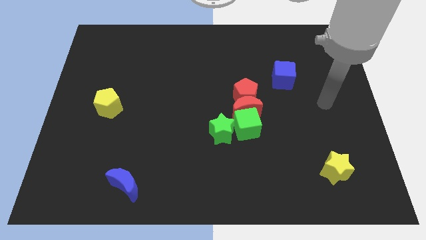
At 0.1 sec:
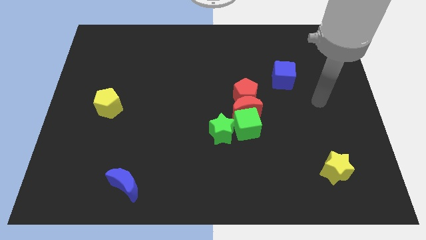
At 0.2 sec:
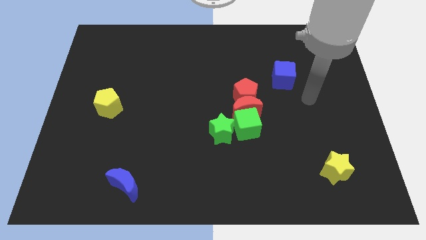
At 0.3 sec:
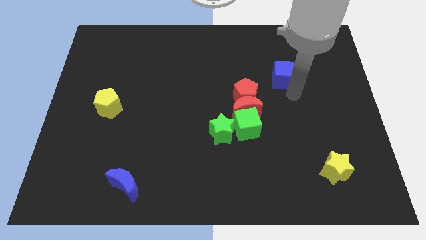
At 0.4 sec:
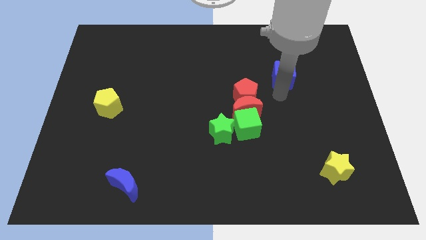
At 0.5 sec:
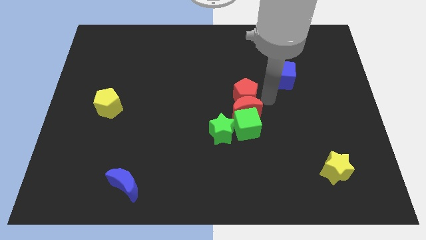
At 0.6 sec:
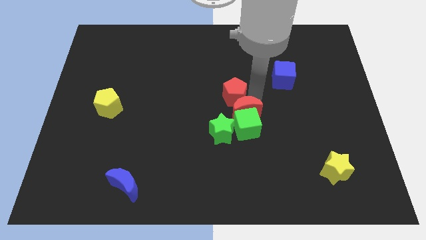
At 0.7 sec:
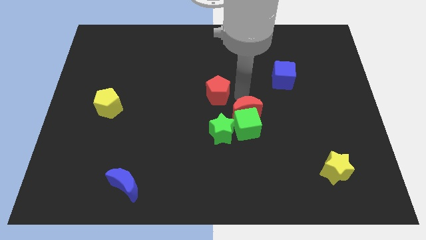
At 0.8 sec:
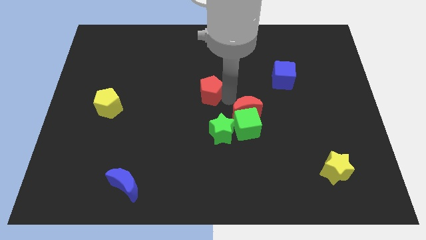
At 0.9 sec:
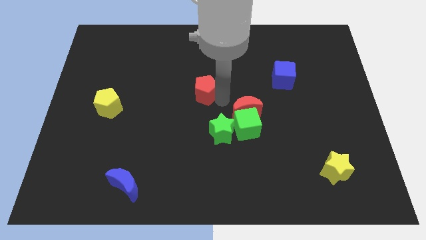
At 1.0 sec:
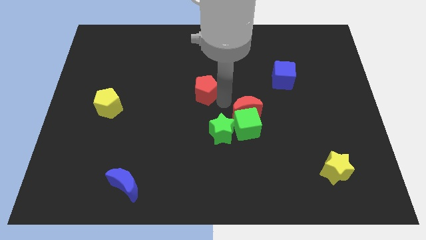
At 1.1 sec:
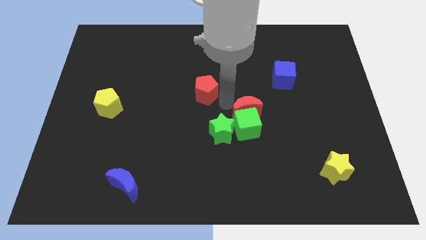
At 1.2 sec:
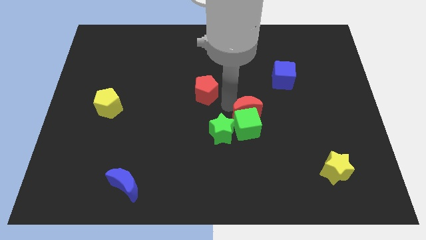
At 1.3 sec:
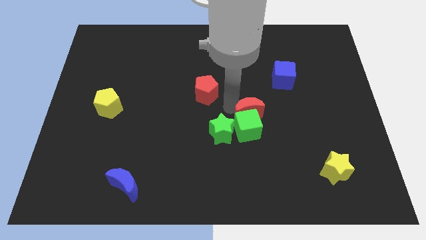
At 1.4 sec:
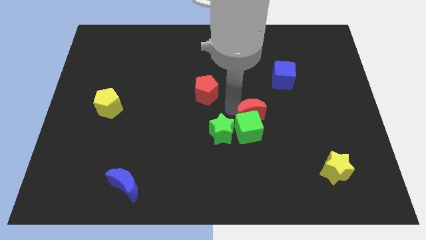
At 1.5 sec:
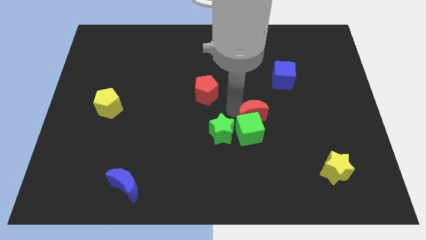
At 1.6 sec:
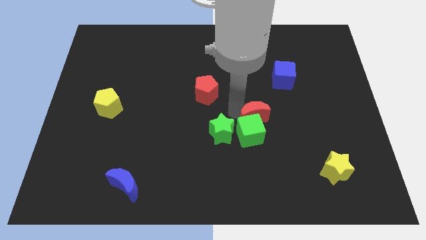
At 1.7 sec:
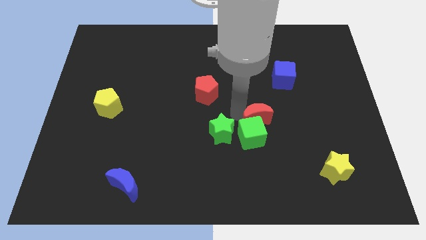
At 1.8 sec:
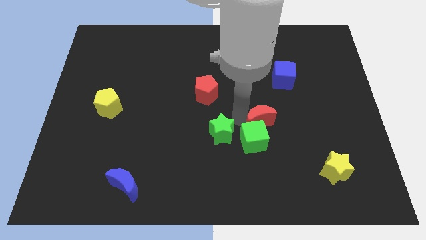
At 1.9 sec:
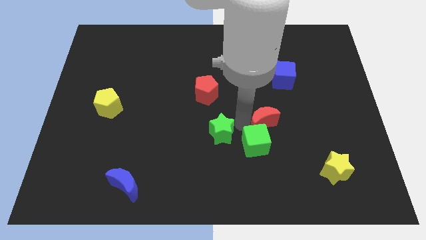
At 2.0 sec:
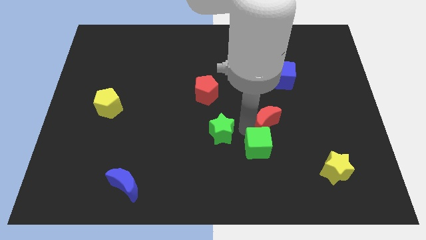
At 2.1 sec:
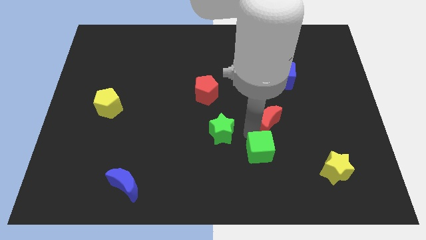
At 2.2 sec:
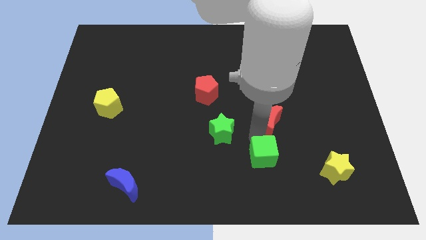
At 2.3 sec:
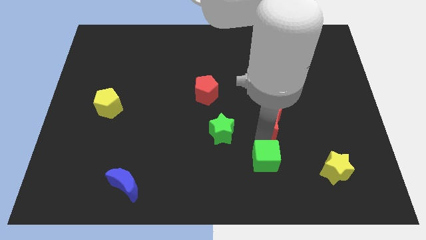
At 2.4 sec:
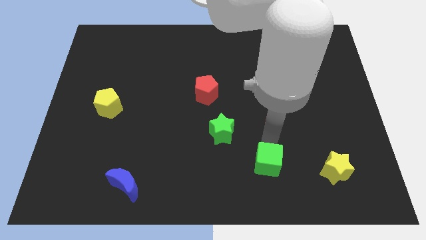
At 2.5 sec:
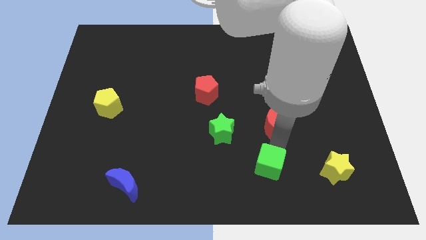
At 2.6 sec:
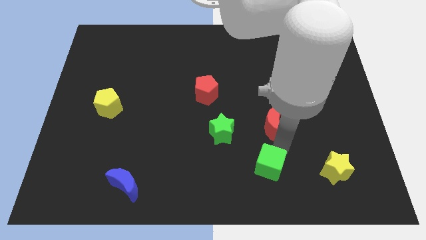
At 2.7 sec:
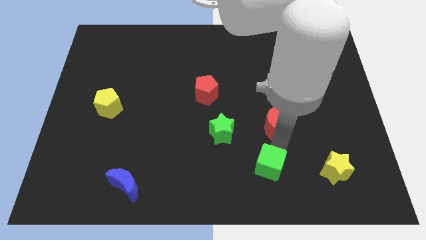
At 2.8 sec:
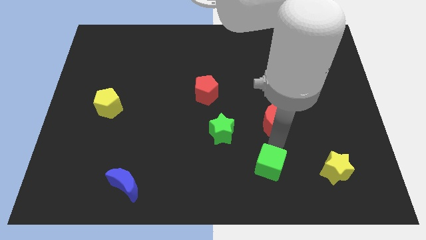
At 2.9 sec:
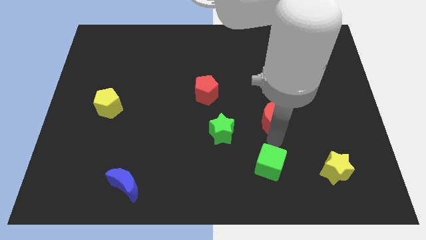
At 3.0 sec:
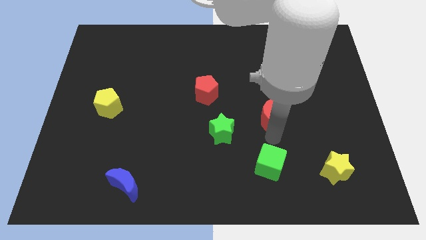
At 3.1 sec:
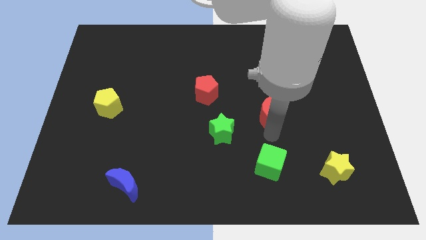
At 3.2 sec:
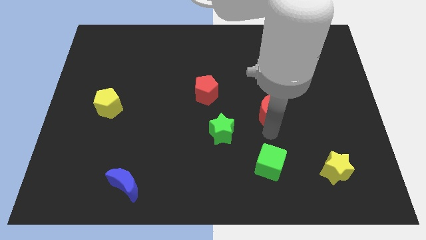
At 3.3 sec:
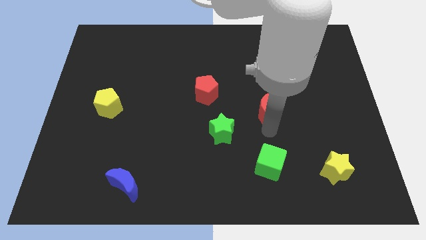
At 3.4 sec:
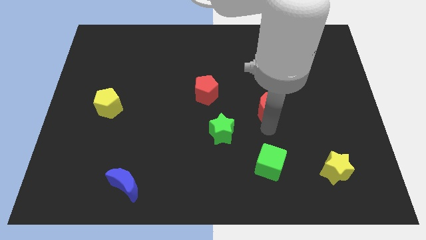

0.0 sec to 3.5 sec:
move the red moon away from the clump

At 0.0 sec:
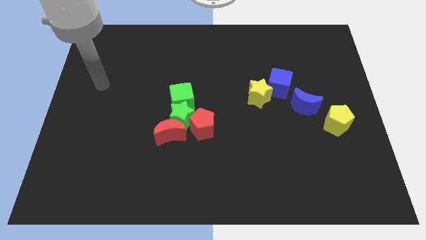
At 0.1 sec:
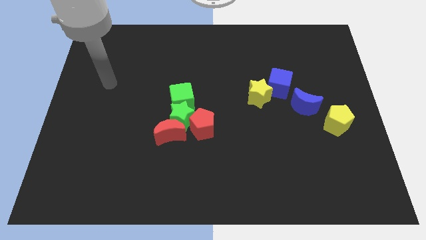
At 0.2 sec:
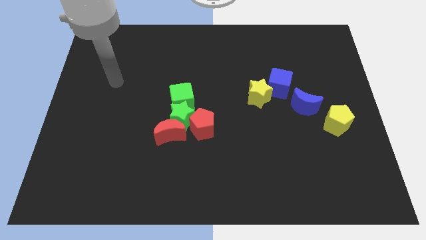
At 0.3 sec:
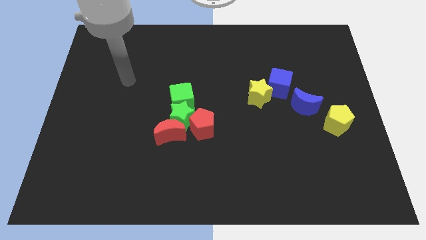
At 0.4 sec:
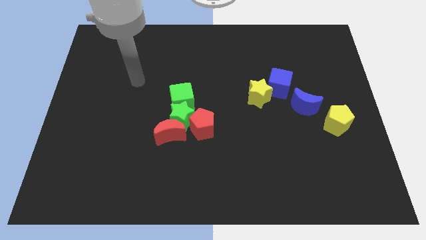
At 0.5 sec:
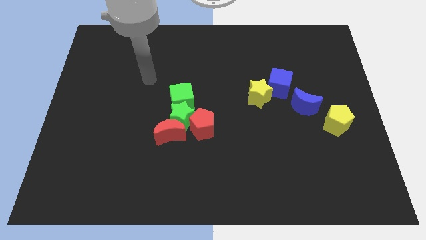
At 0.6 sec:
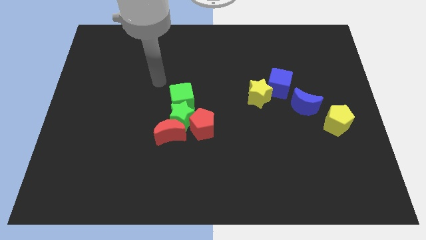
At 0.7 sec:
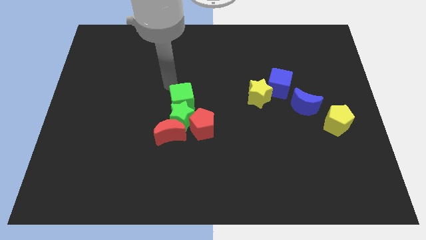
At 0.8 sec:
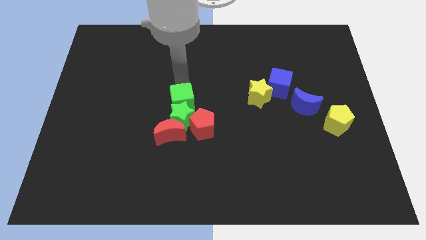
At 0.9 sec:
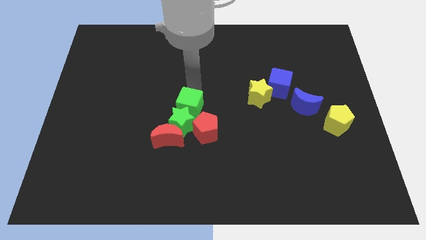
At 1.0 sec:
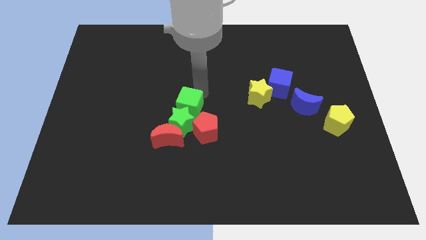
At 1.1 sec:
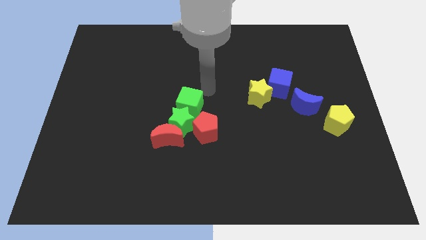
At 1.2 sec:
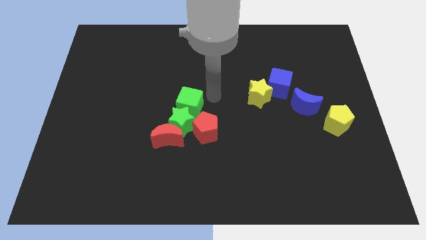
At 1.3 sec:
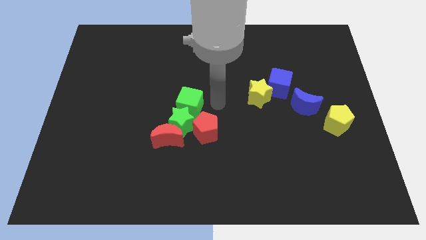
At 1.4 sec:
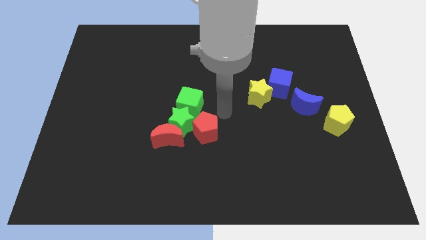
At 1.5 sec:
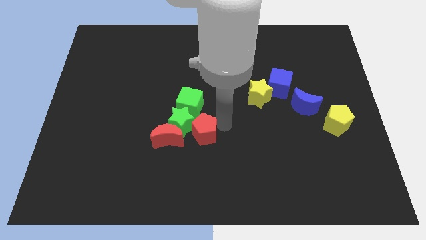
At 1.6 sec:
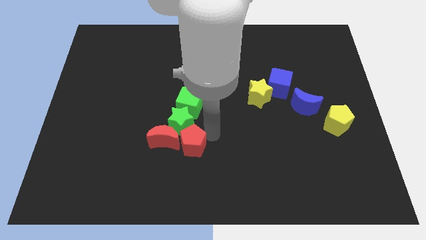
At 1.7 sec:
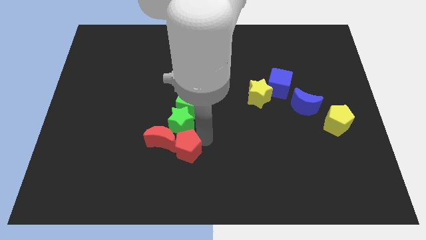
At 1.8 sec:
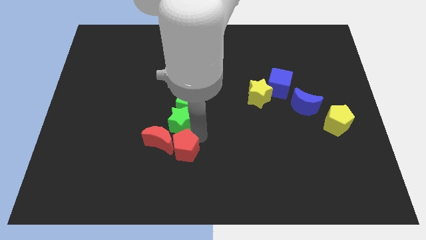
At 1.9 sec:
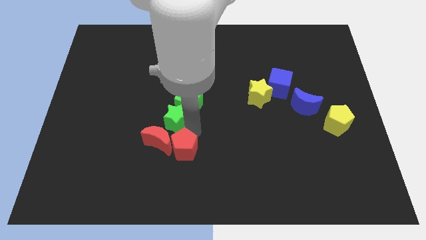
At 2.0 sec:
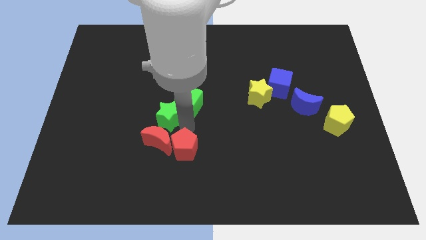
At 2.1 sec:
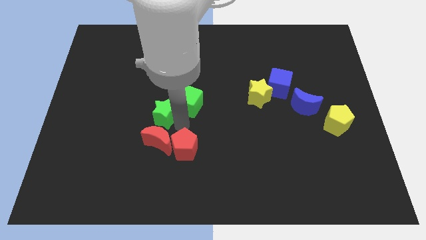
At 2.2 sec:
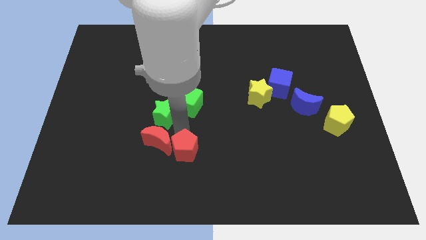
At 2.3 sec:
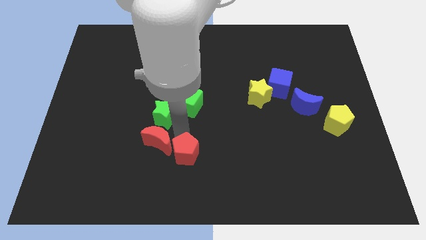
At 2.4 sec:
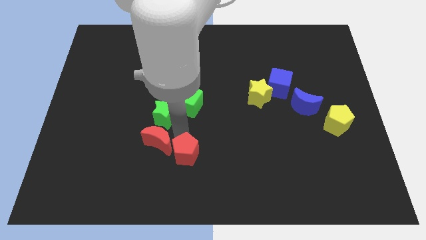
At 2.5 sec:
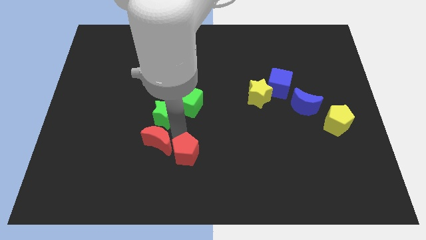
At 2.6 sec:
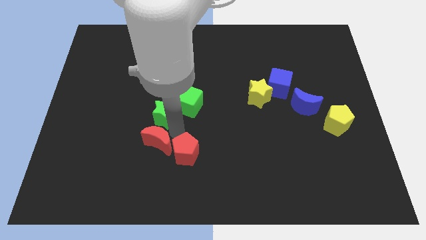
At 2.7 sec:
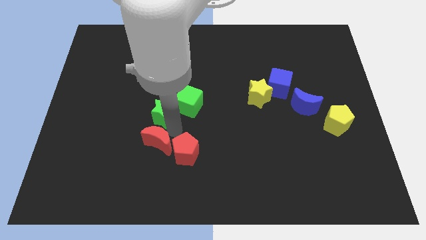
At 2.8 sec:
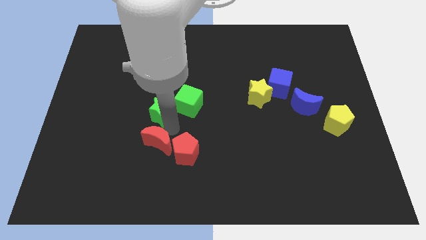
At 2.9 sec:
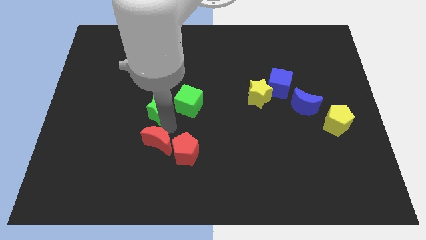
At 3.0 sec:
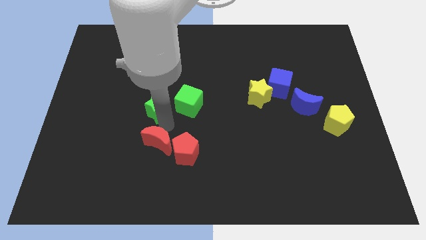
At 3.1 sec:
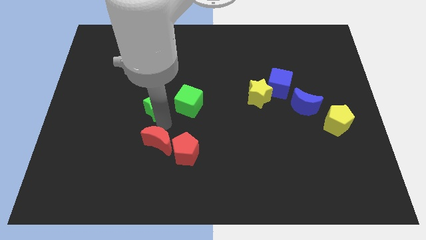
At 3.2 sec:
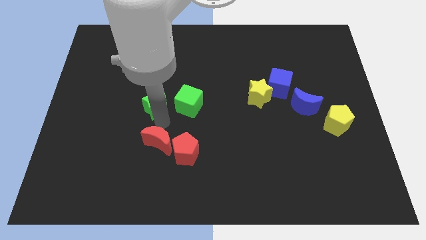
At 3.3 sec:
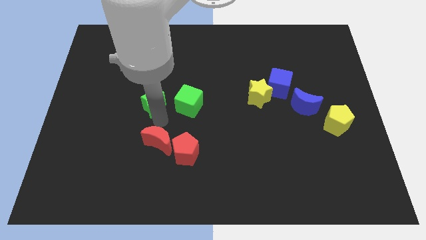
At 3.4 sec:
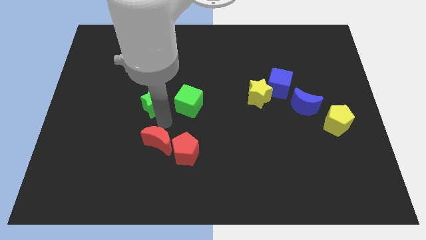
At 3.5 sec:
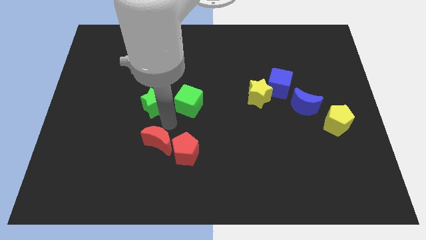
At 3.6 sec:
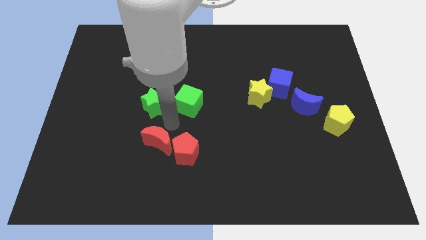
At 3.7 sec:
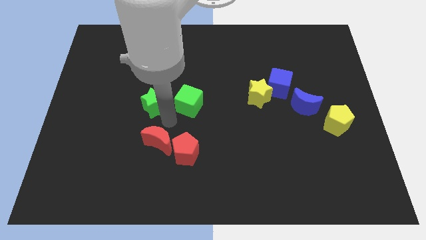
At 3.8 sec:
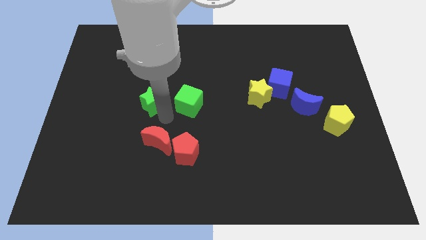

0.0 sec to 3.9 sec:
separate the green star from the group of blocks

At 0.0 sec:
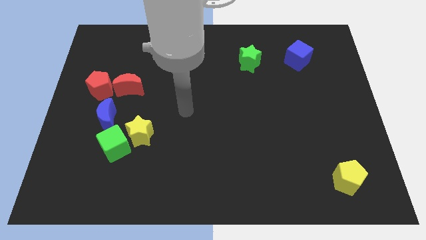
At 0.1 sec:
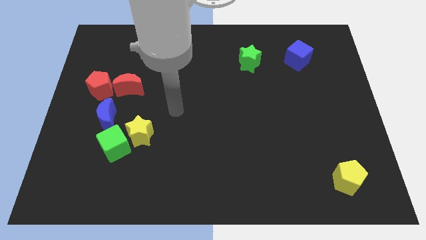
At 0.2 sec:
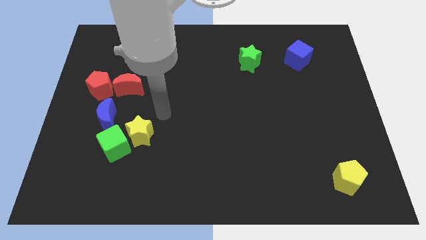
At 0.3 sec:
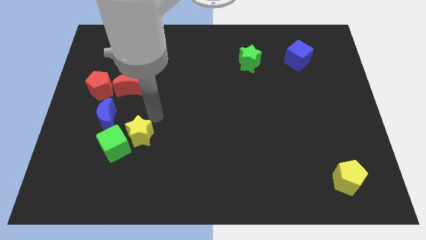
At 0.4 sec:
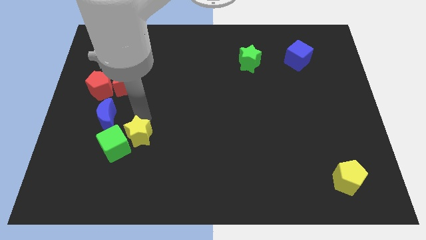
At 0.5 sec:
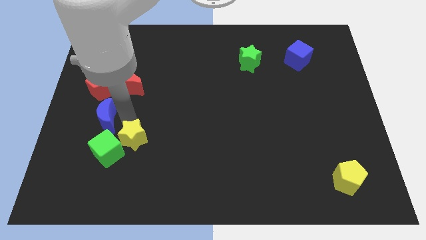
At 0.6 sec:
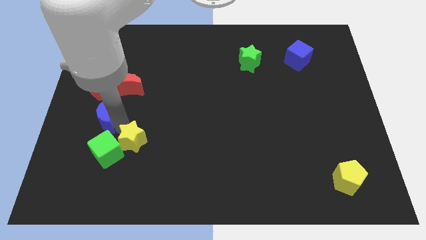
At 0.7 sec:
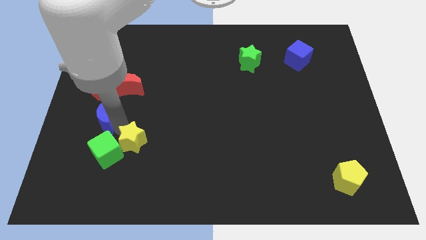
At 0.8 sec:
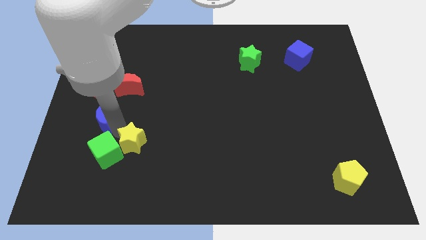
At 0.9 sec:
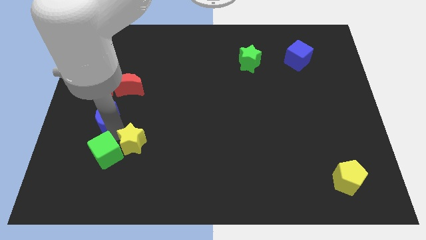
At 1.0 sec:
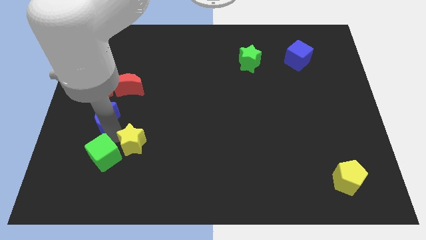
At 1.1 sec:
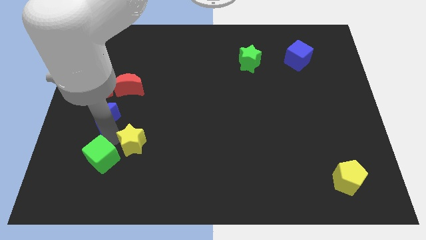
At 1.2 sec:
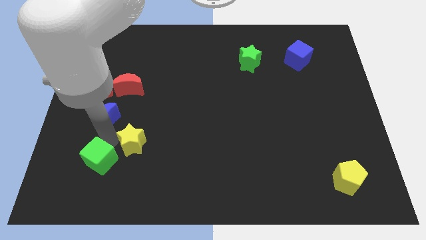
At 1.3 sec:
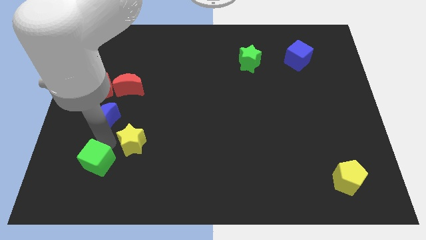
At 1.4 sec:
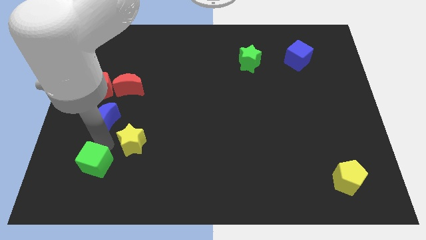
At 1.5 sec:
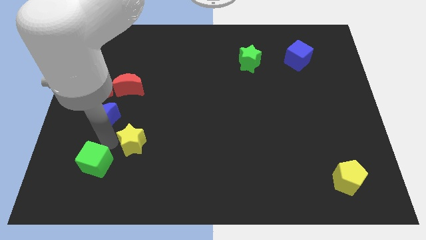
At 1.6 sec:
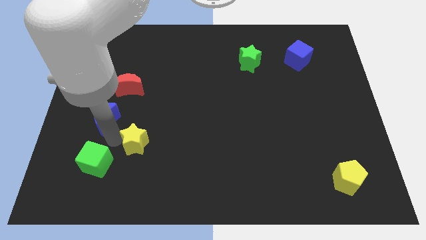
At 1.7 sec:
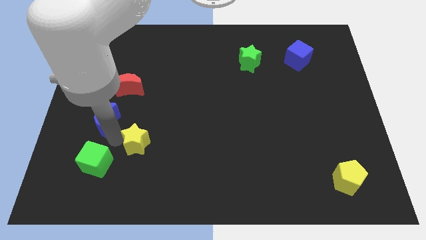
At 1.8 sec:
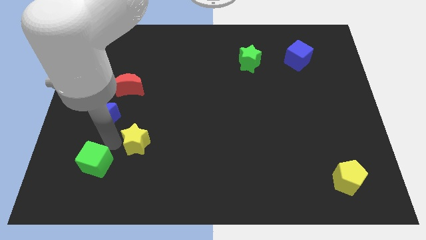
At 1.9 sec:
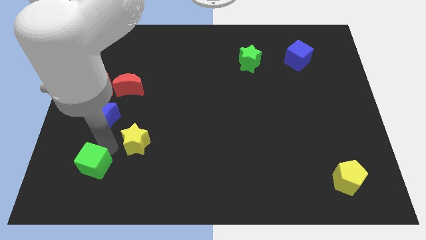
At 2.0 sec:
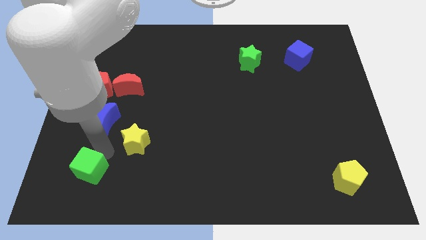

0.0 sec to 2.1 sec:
separate the green cube from the yellow star and blue moon

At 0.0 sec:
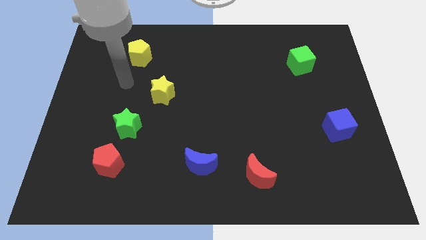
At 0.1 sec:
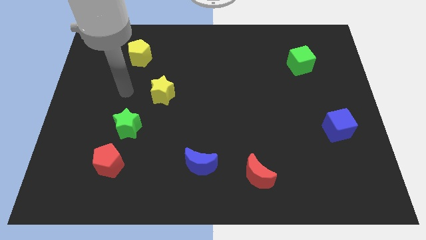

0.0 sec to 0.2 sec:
separate the red pentagon from the green star
